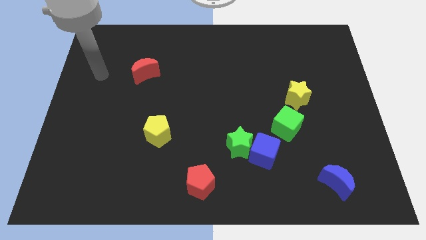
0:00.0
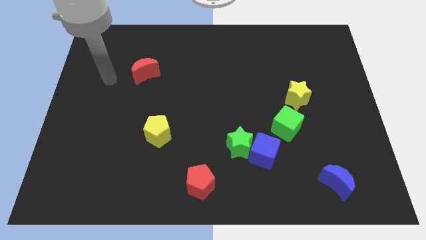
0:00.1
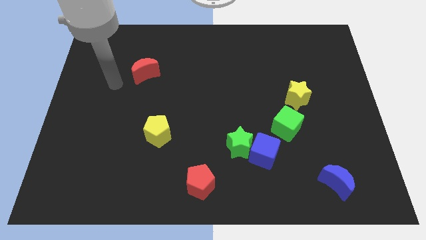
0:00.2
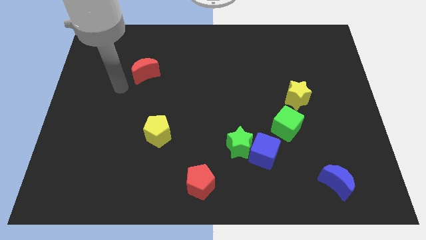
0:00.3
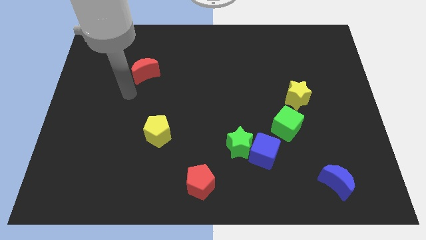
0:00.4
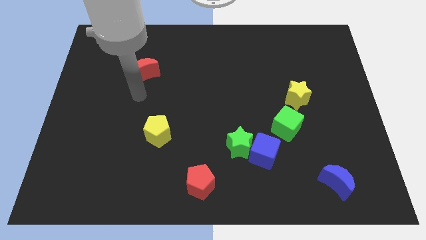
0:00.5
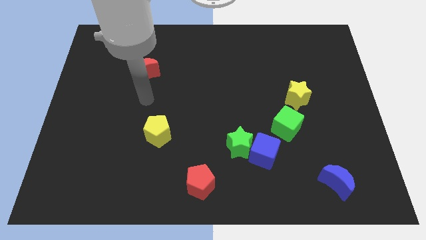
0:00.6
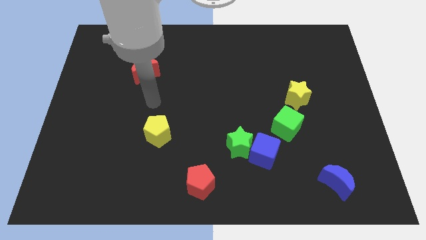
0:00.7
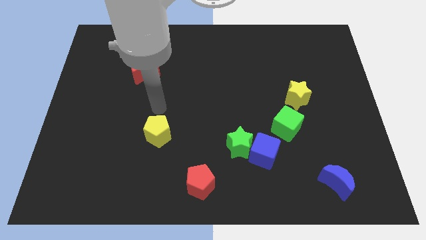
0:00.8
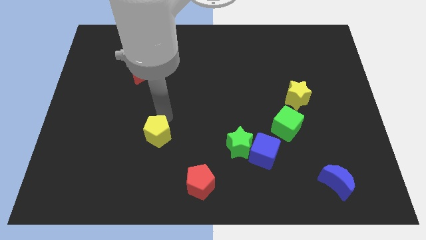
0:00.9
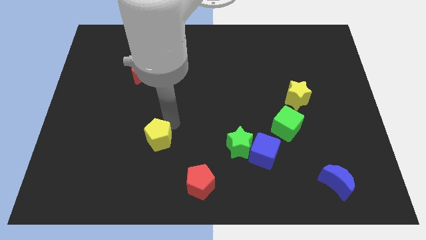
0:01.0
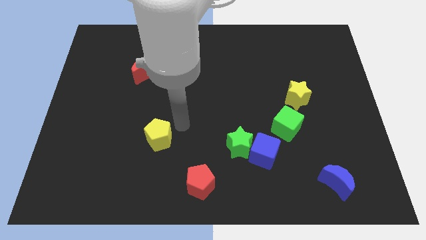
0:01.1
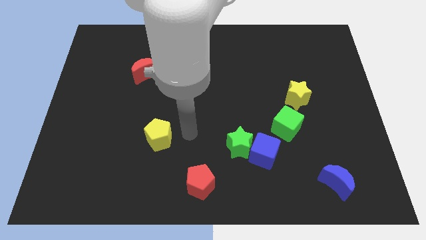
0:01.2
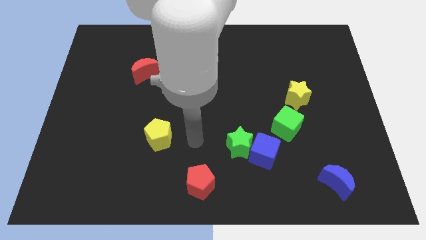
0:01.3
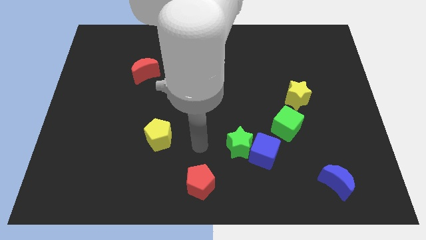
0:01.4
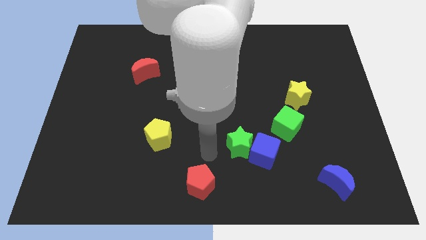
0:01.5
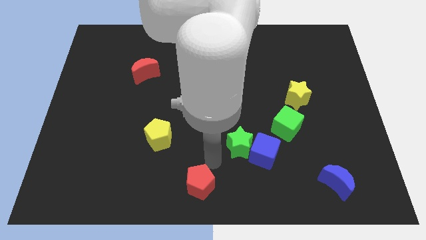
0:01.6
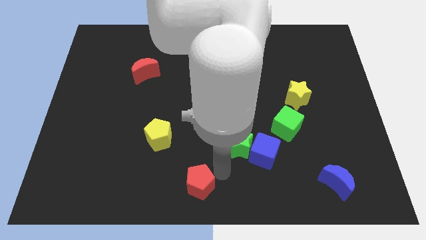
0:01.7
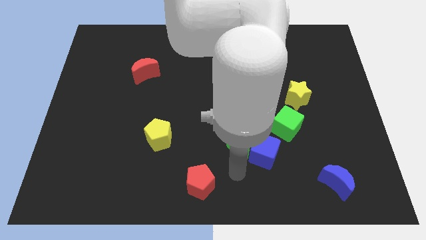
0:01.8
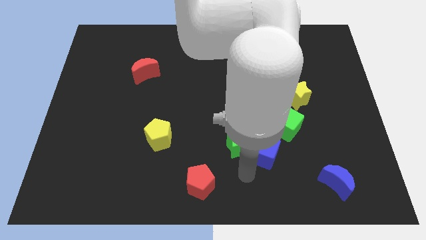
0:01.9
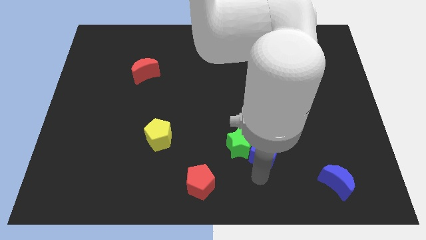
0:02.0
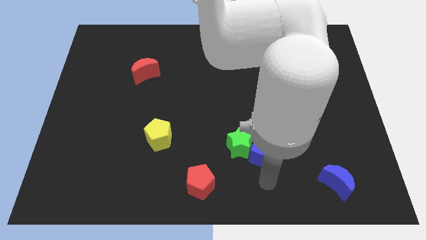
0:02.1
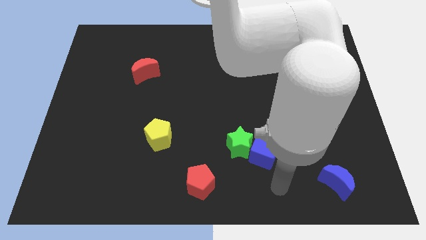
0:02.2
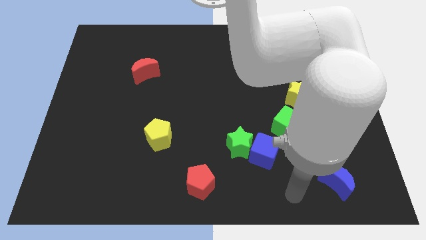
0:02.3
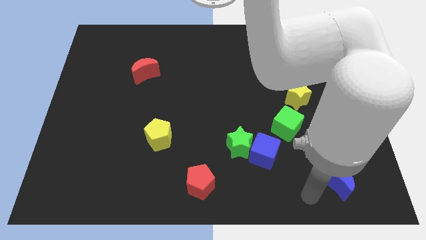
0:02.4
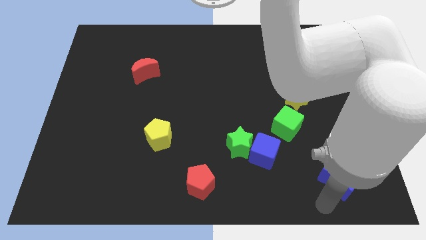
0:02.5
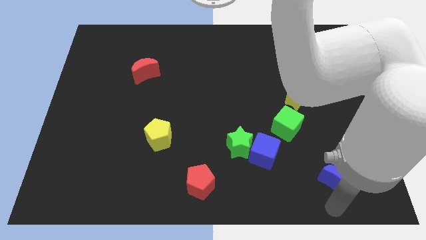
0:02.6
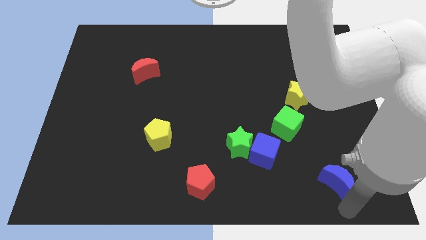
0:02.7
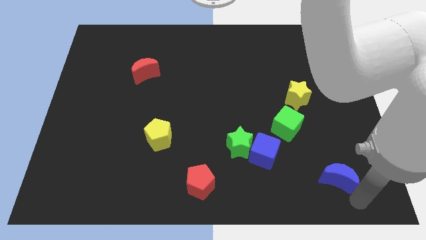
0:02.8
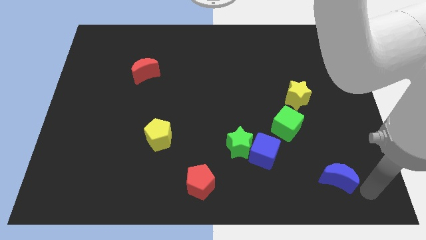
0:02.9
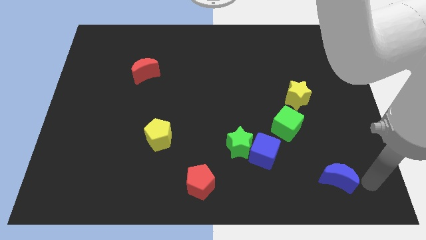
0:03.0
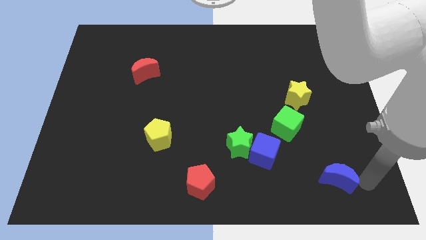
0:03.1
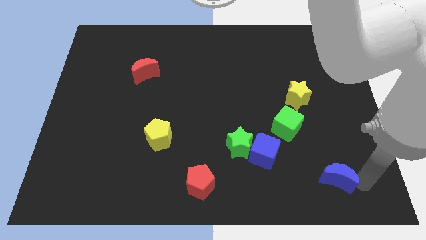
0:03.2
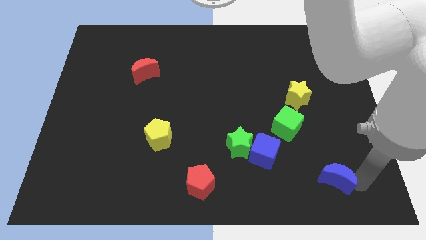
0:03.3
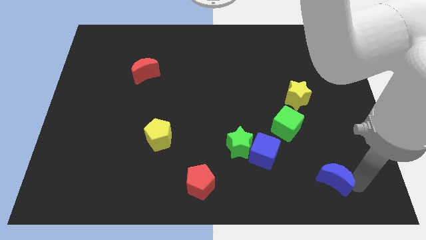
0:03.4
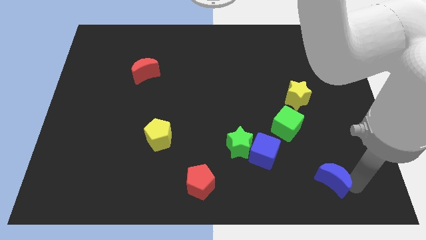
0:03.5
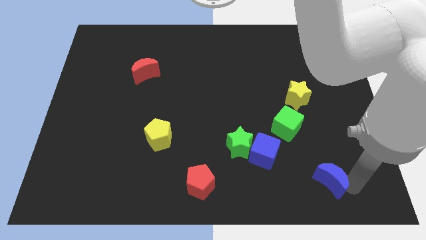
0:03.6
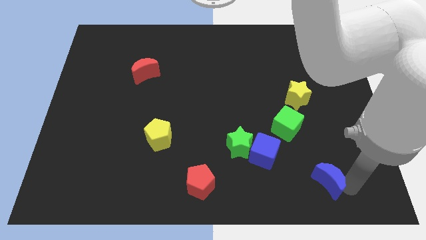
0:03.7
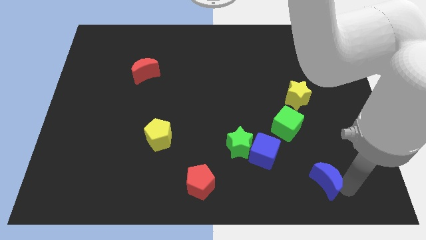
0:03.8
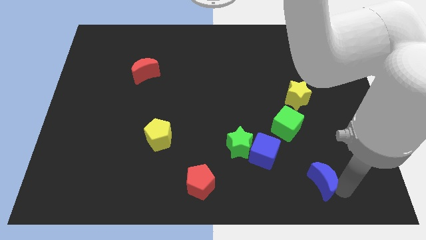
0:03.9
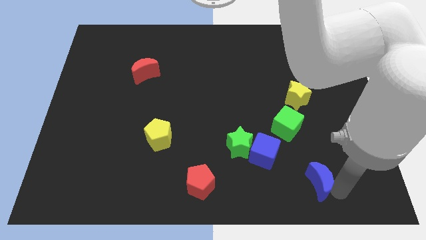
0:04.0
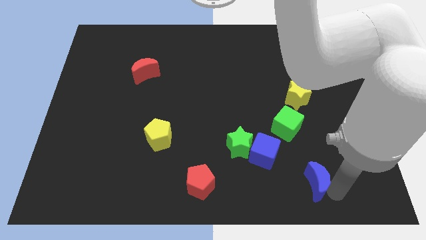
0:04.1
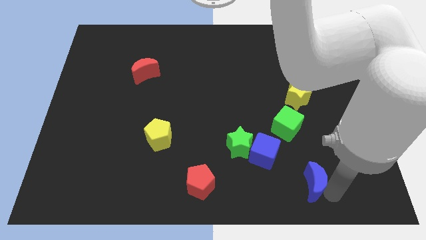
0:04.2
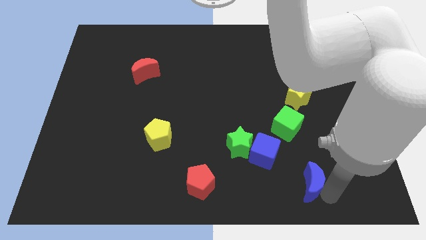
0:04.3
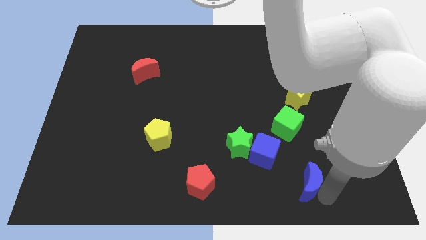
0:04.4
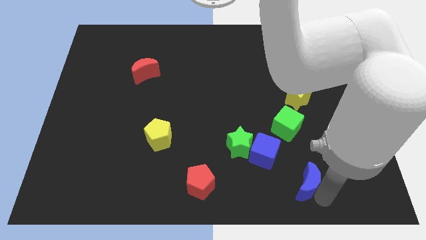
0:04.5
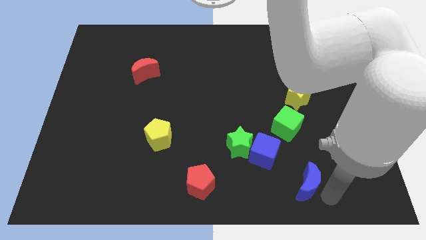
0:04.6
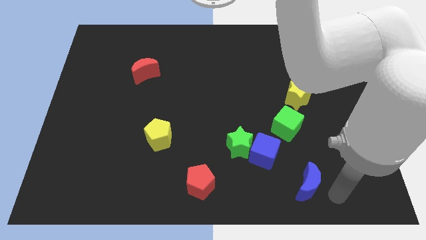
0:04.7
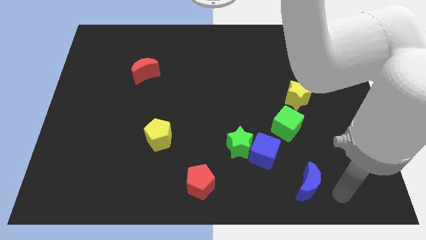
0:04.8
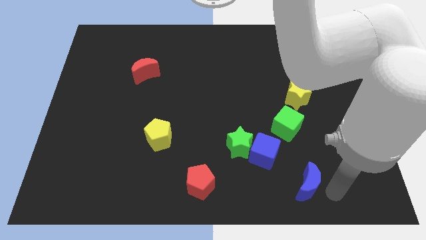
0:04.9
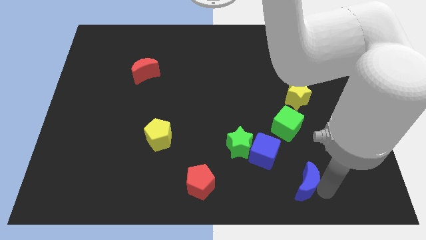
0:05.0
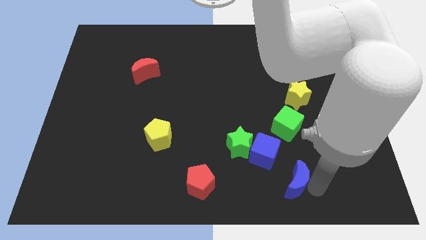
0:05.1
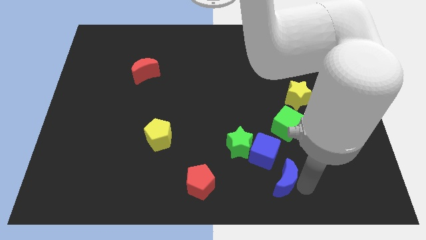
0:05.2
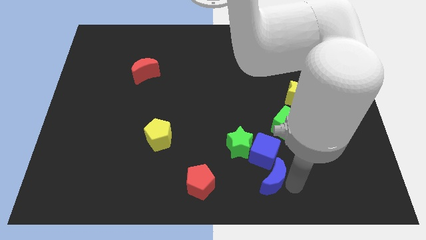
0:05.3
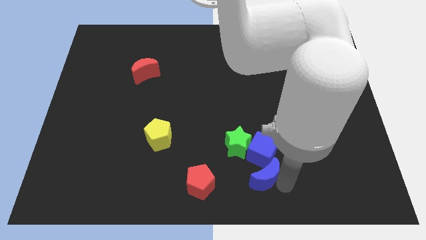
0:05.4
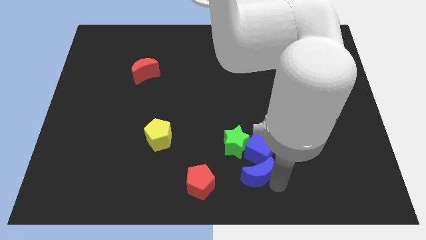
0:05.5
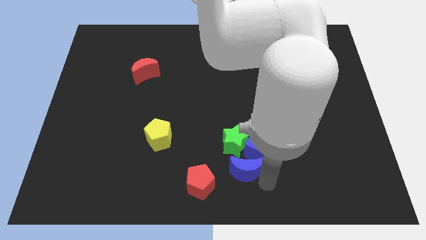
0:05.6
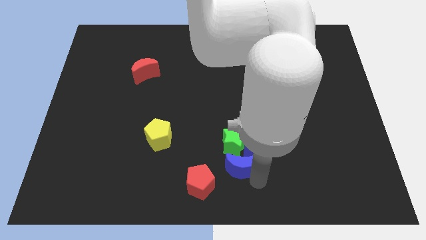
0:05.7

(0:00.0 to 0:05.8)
move the blue moon next to the green star

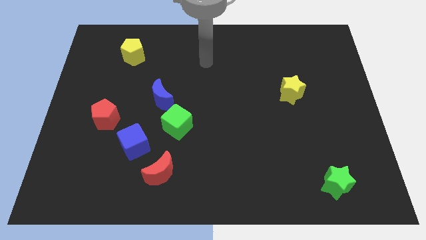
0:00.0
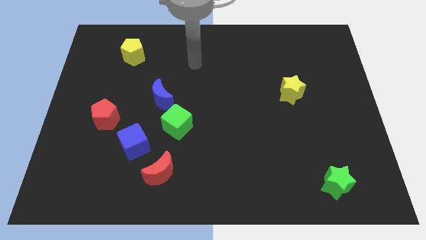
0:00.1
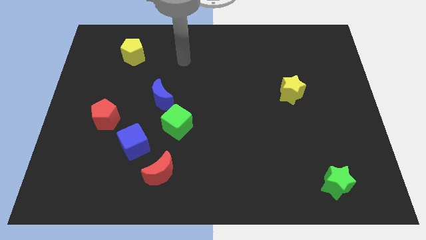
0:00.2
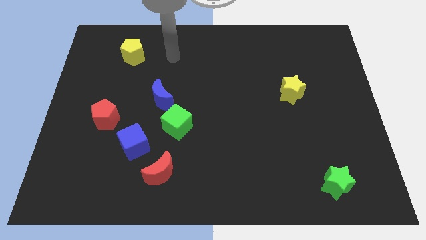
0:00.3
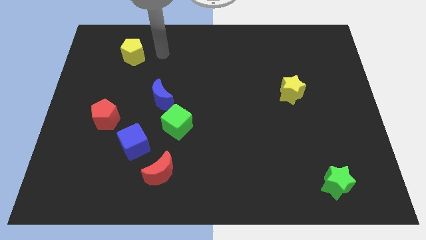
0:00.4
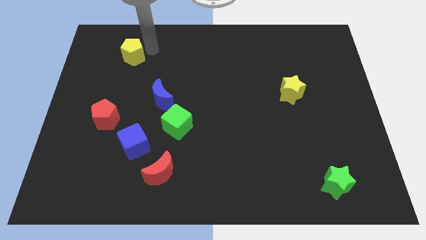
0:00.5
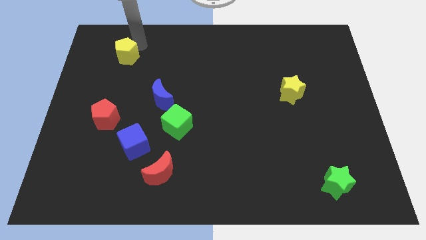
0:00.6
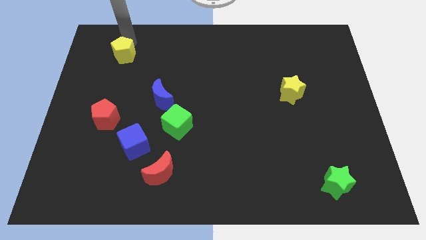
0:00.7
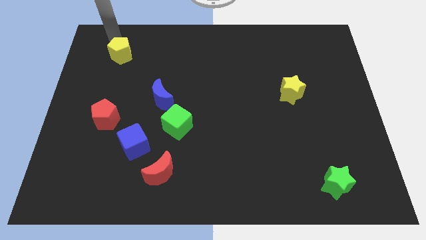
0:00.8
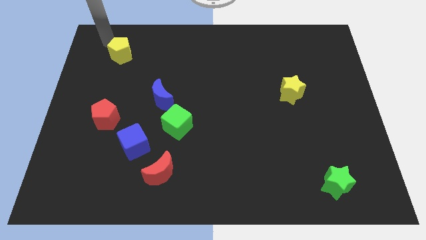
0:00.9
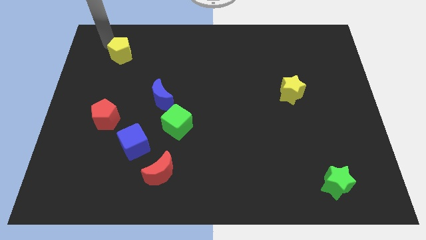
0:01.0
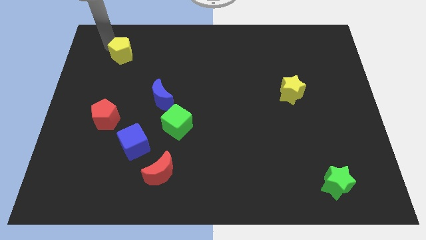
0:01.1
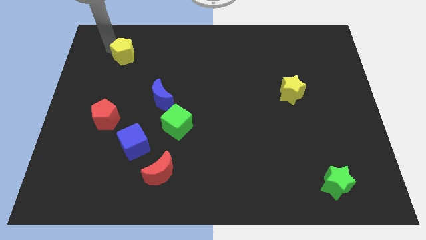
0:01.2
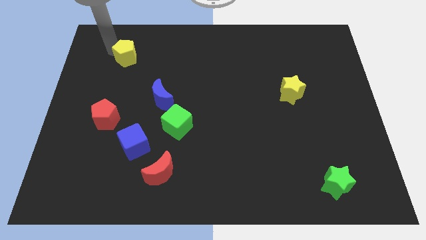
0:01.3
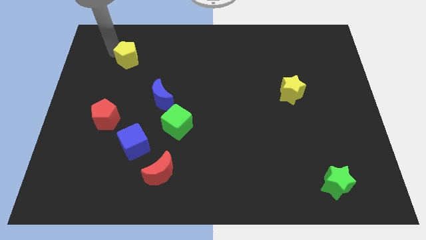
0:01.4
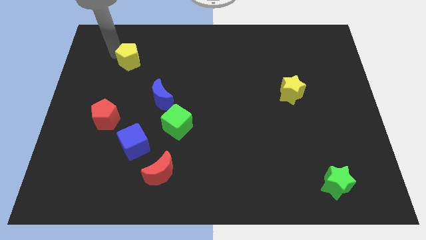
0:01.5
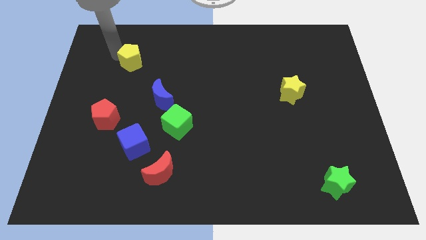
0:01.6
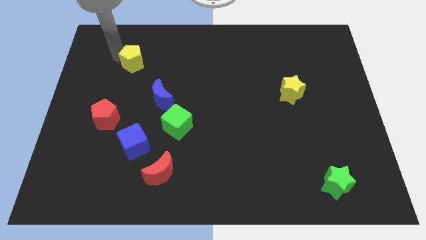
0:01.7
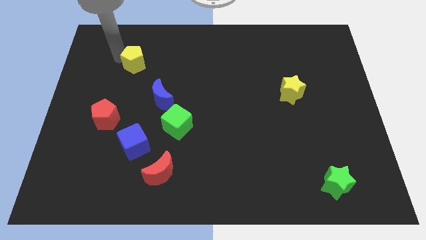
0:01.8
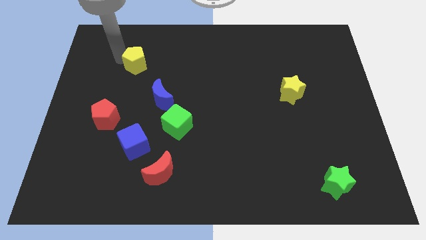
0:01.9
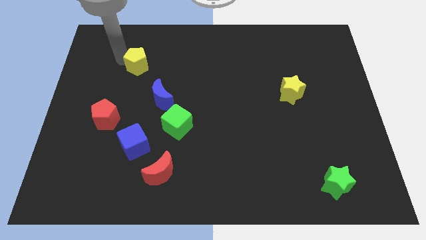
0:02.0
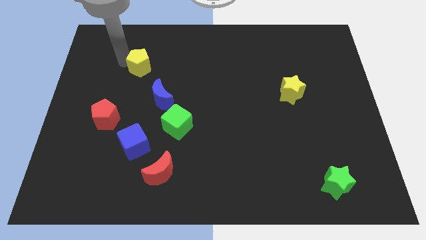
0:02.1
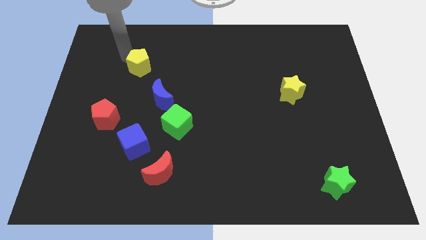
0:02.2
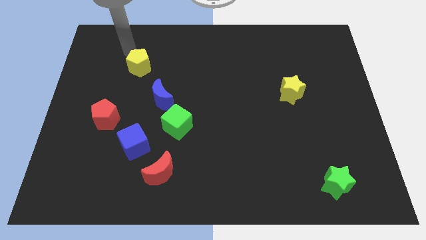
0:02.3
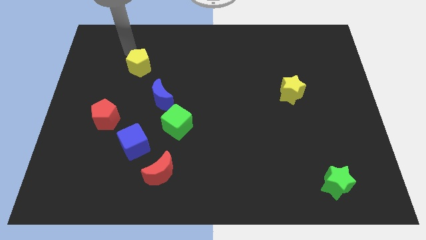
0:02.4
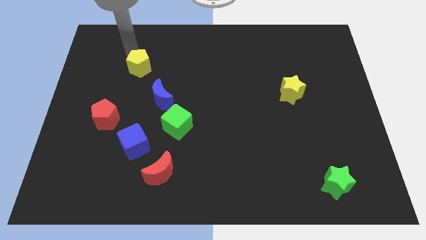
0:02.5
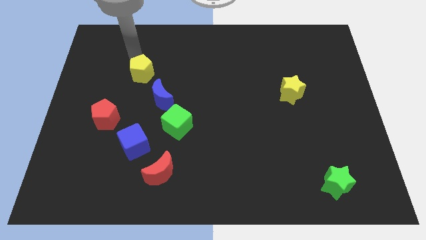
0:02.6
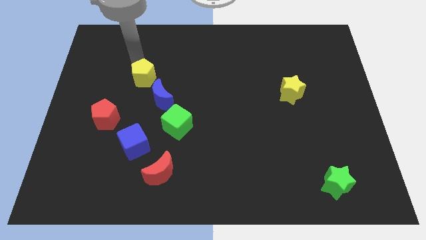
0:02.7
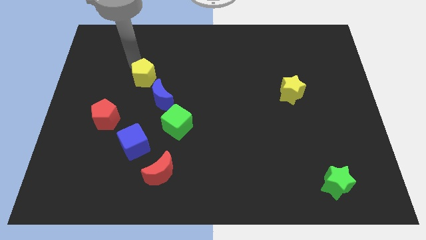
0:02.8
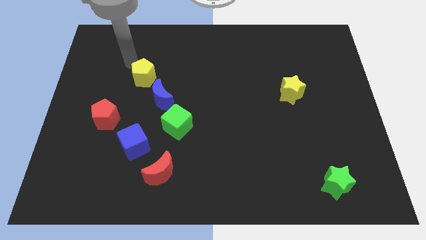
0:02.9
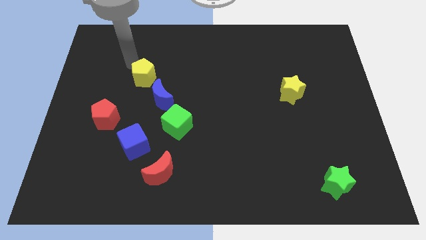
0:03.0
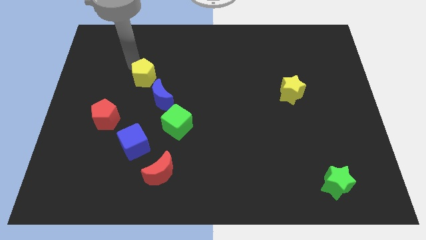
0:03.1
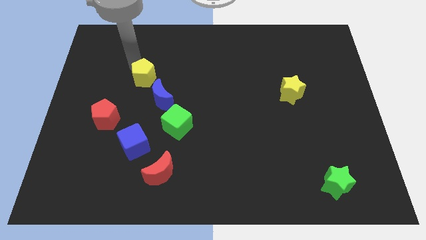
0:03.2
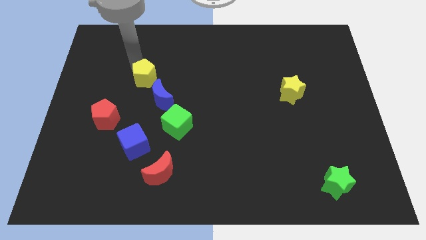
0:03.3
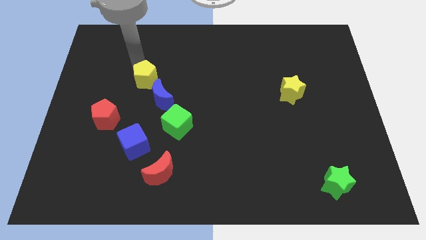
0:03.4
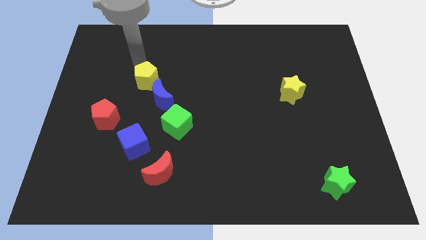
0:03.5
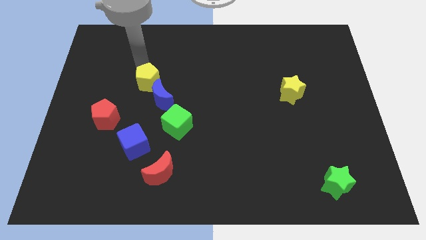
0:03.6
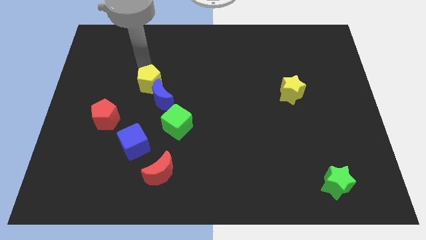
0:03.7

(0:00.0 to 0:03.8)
put the yellow pentagon towards the blue moon
